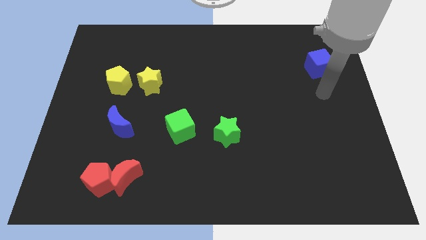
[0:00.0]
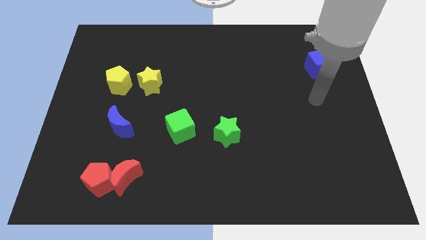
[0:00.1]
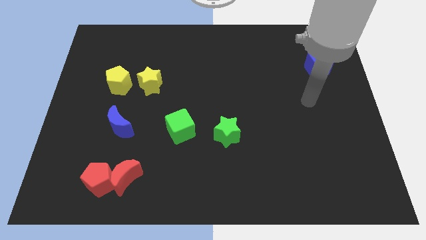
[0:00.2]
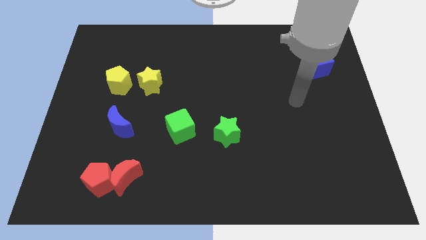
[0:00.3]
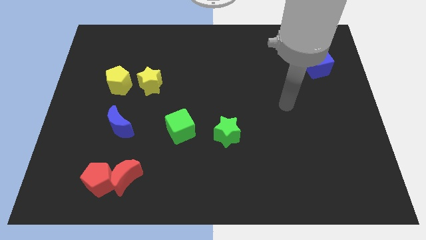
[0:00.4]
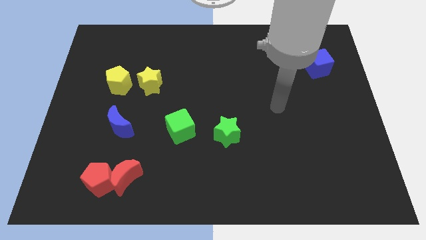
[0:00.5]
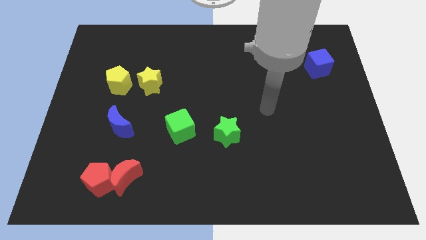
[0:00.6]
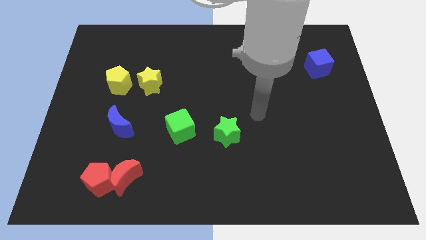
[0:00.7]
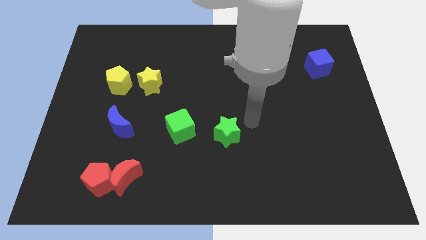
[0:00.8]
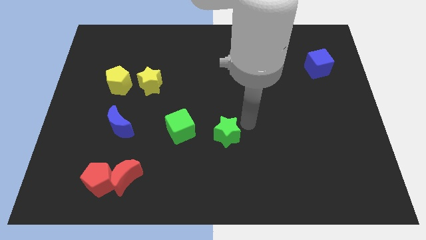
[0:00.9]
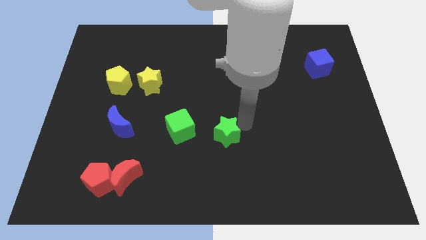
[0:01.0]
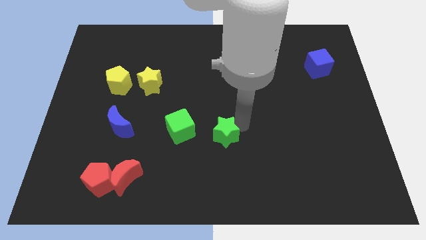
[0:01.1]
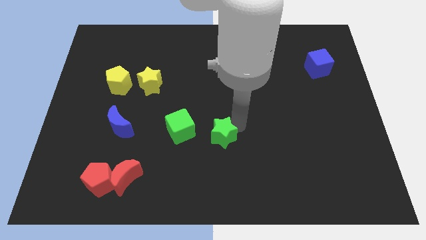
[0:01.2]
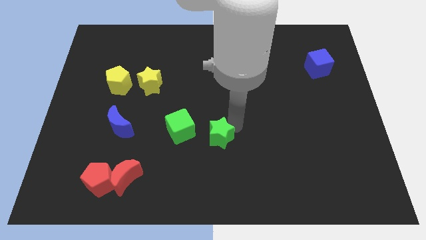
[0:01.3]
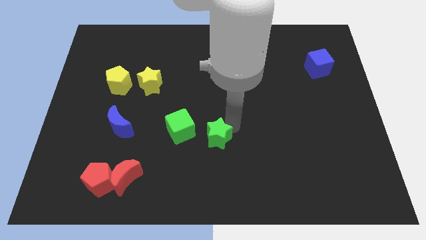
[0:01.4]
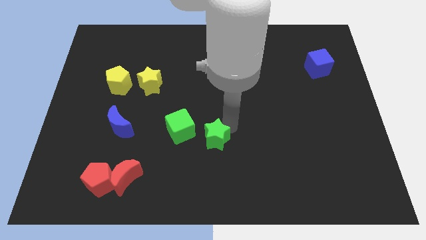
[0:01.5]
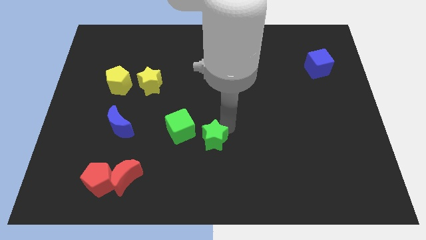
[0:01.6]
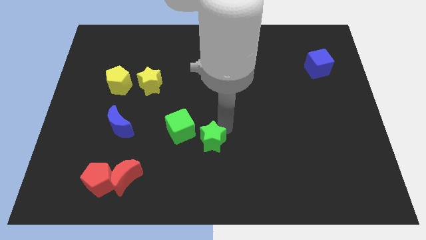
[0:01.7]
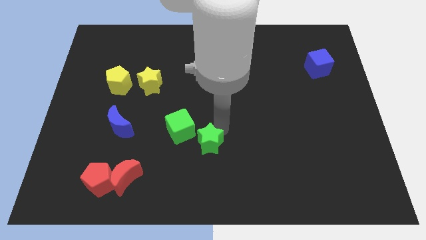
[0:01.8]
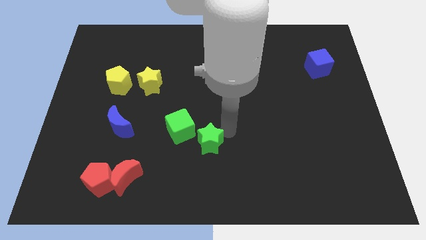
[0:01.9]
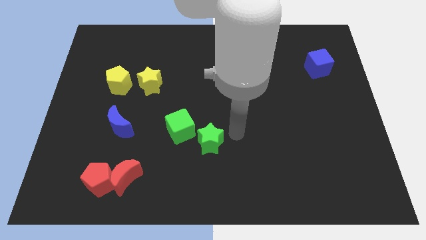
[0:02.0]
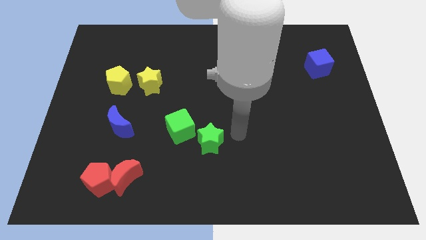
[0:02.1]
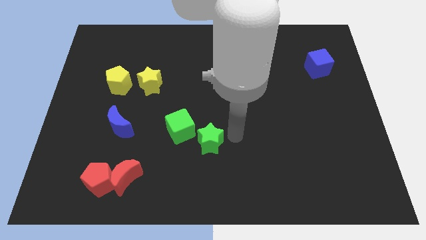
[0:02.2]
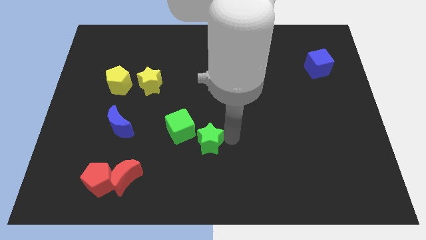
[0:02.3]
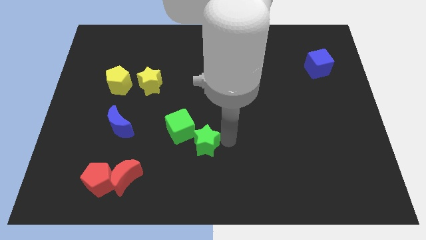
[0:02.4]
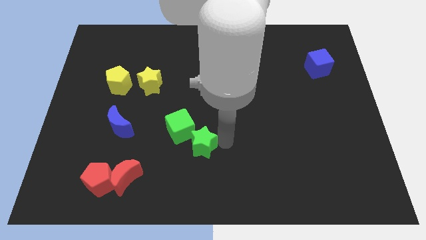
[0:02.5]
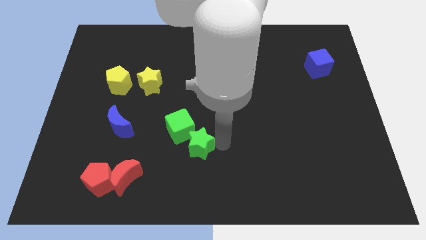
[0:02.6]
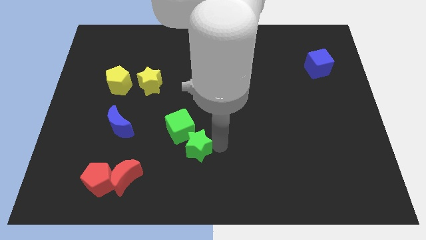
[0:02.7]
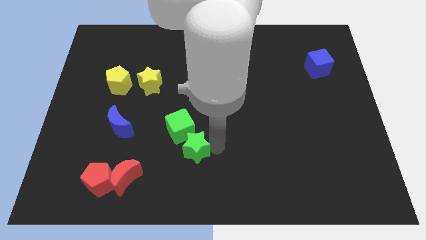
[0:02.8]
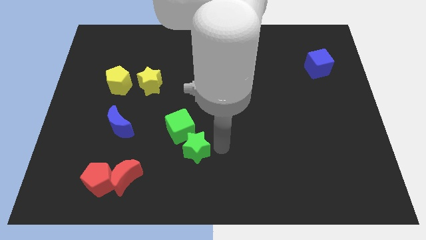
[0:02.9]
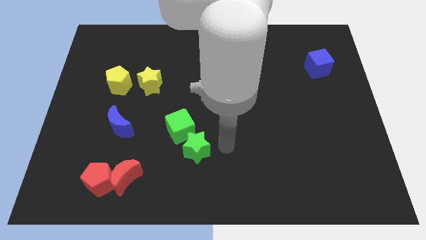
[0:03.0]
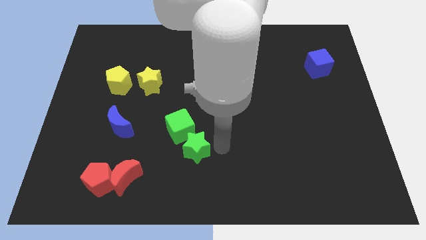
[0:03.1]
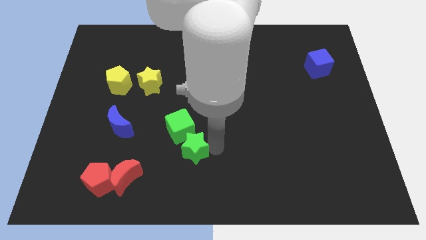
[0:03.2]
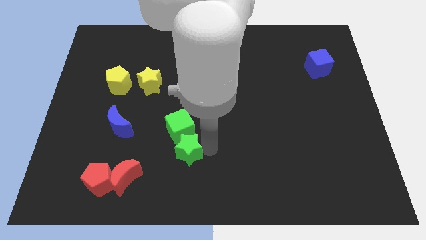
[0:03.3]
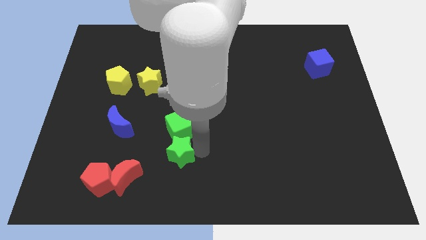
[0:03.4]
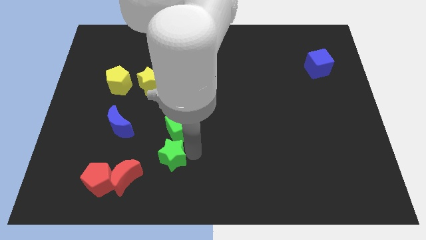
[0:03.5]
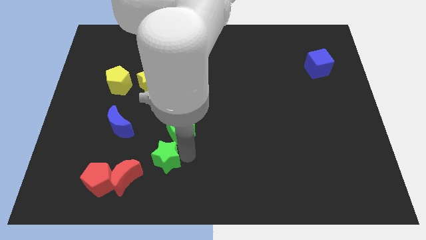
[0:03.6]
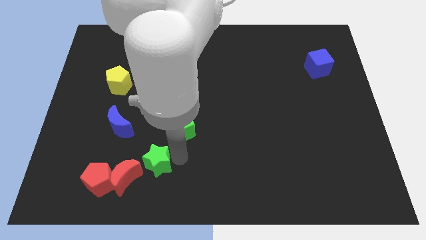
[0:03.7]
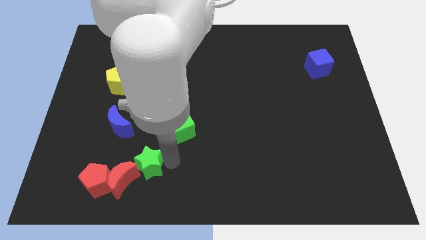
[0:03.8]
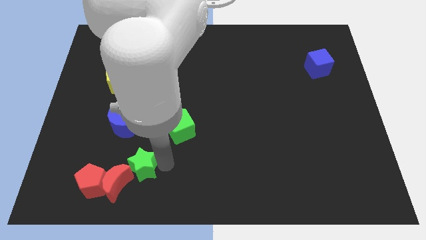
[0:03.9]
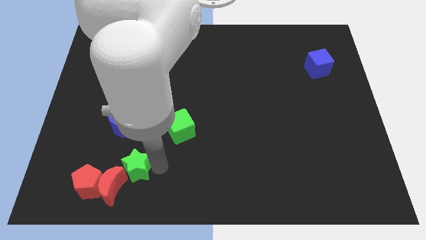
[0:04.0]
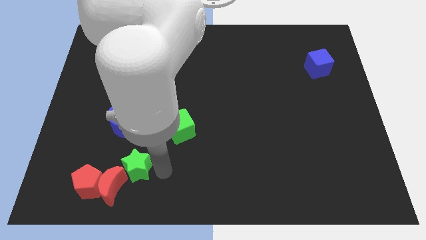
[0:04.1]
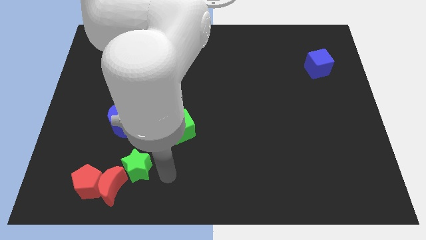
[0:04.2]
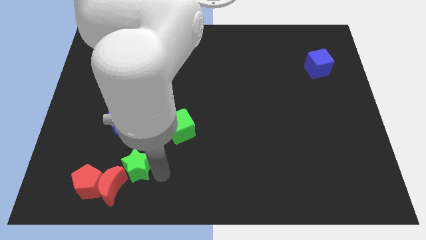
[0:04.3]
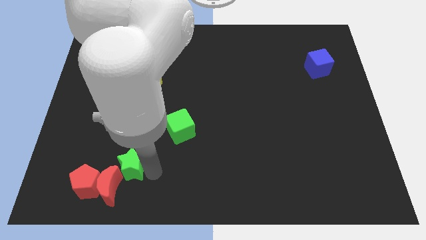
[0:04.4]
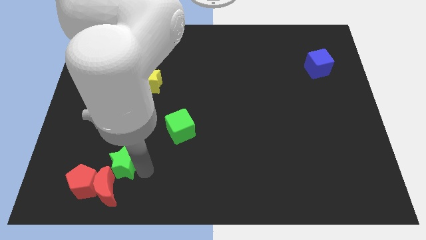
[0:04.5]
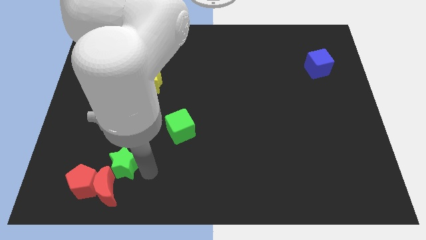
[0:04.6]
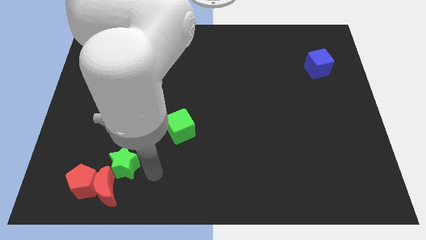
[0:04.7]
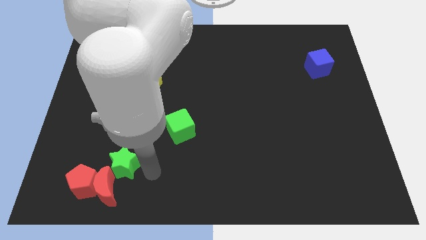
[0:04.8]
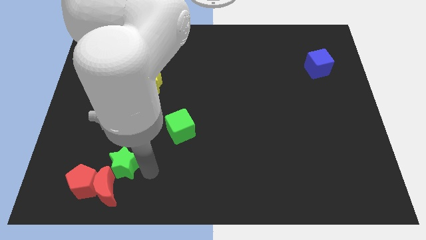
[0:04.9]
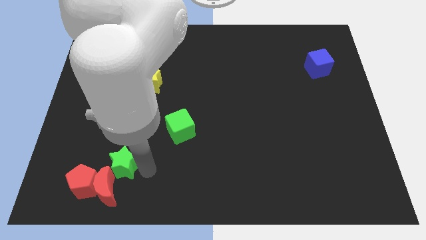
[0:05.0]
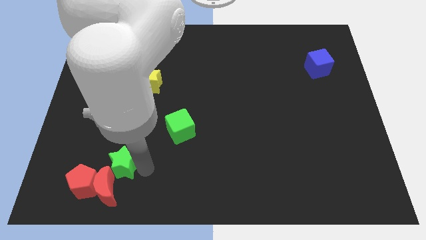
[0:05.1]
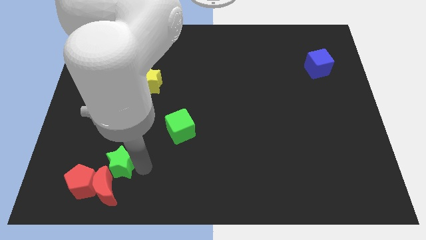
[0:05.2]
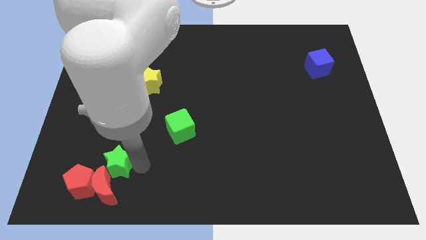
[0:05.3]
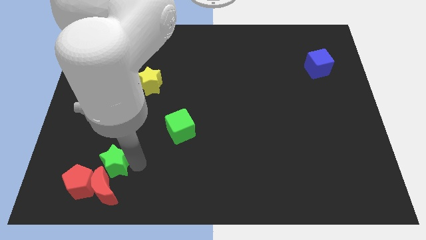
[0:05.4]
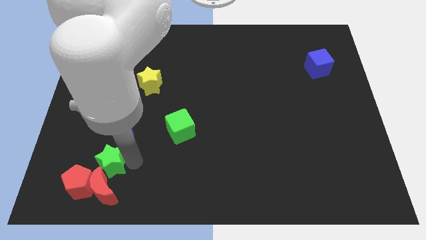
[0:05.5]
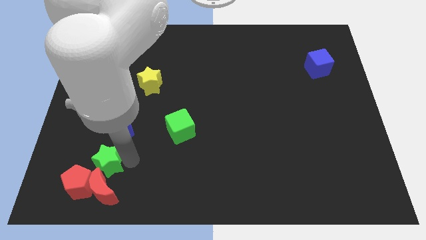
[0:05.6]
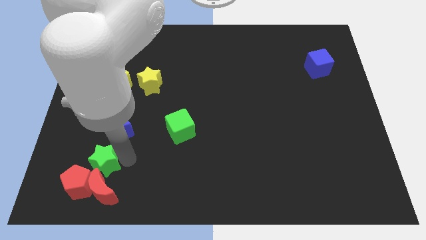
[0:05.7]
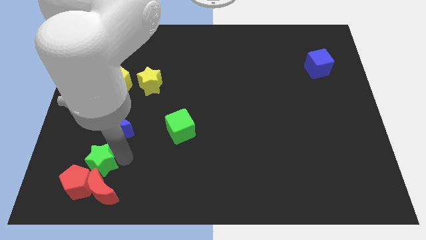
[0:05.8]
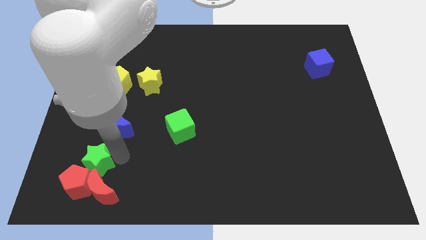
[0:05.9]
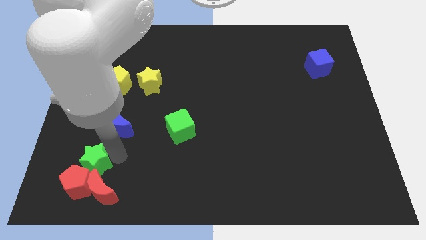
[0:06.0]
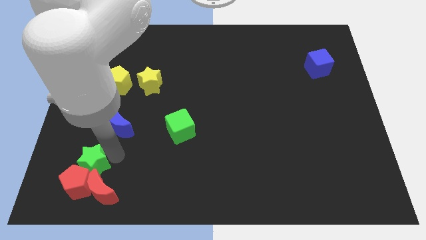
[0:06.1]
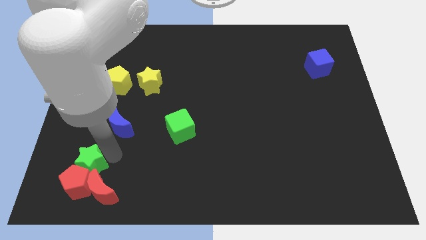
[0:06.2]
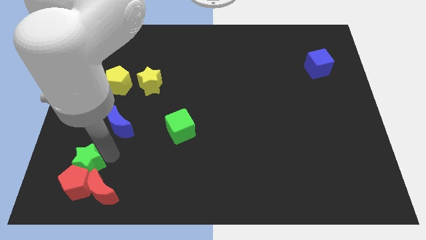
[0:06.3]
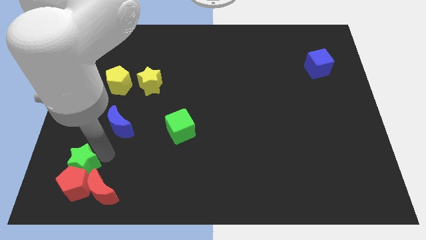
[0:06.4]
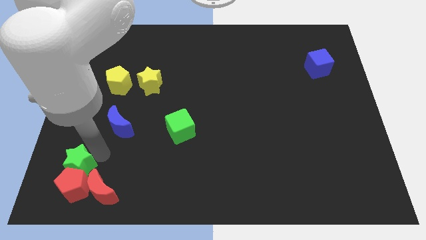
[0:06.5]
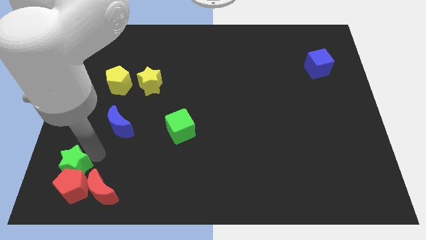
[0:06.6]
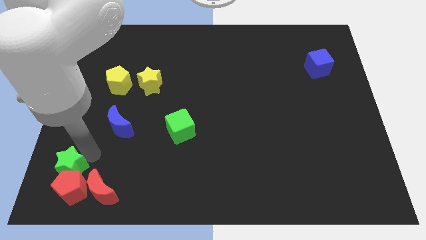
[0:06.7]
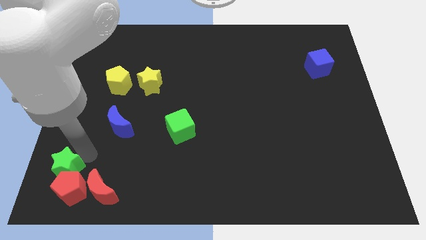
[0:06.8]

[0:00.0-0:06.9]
push the green star to the bottom left corner
